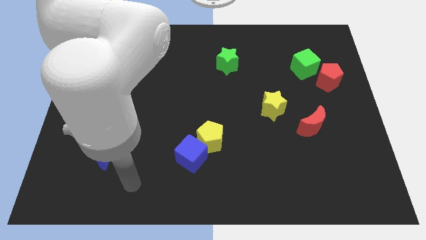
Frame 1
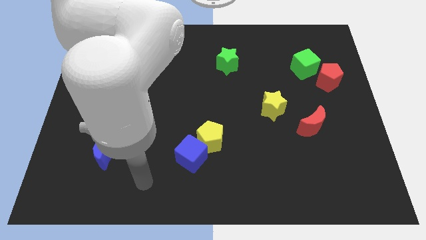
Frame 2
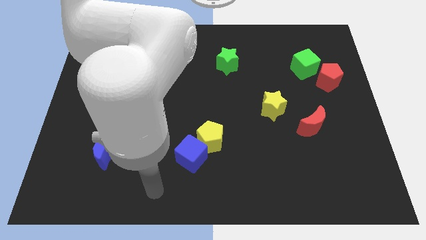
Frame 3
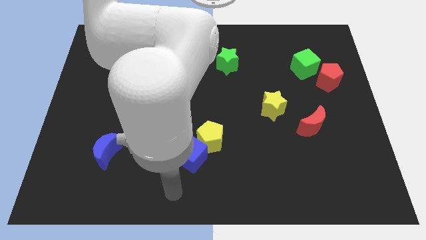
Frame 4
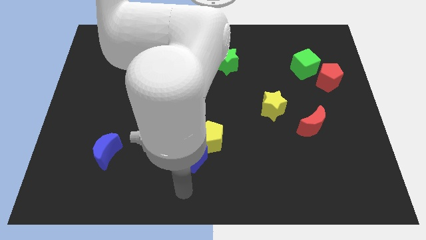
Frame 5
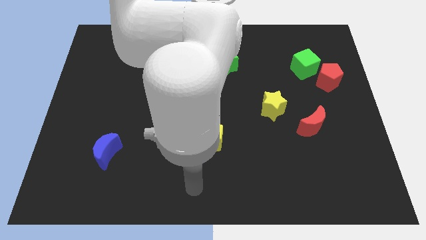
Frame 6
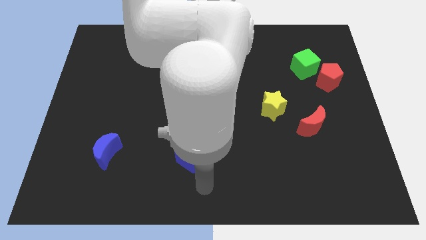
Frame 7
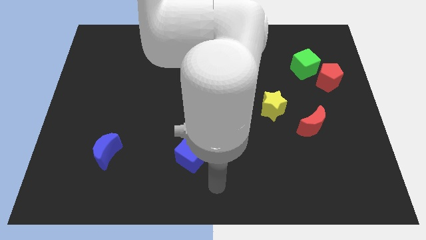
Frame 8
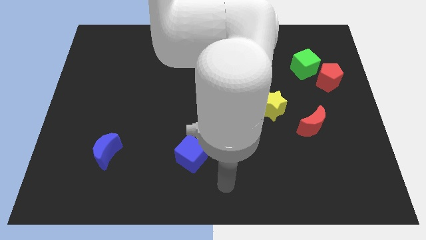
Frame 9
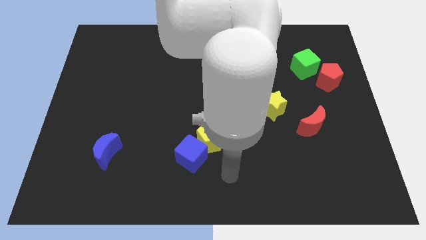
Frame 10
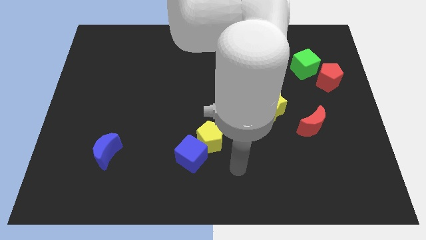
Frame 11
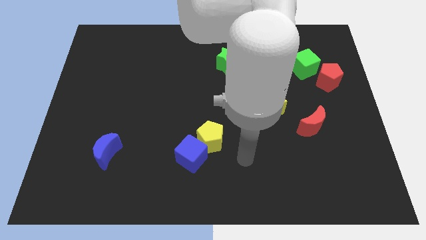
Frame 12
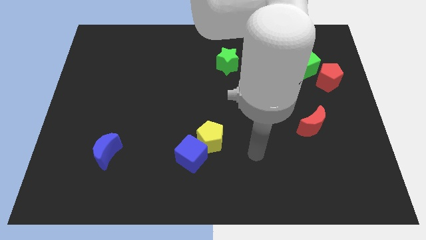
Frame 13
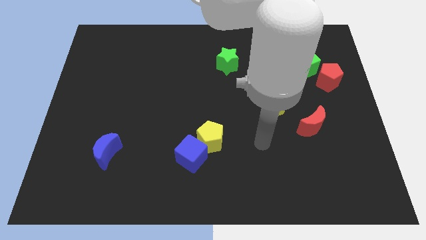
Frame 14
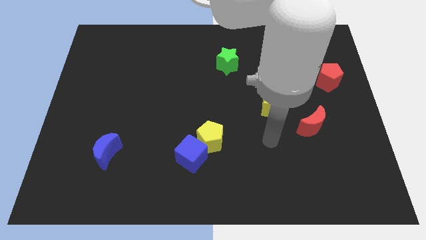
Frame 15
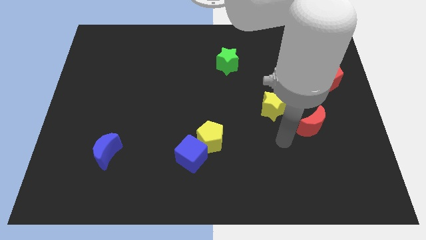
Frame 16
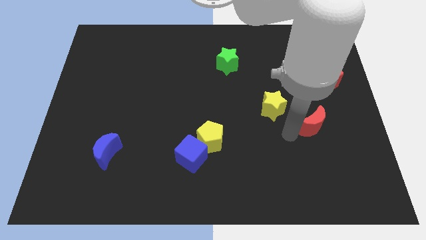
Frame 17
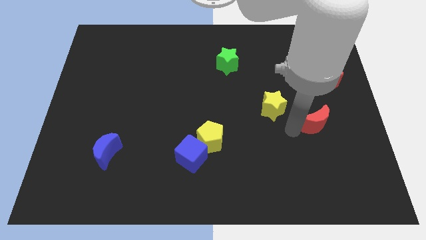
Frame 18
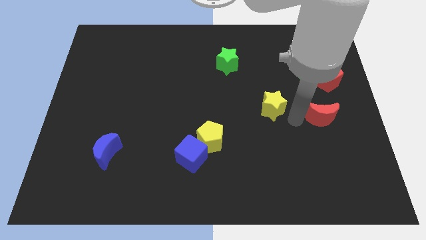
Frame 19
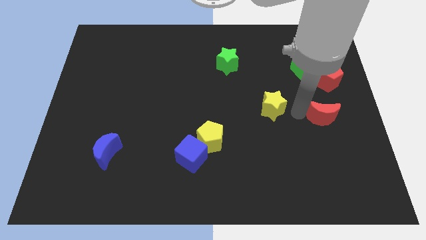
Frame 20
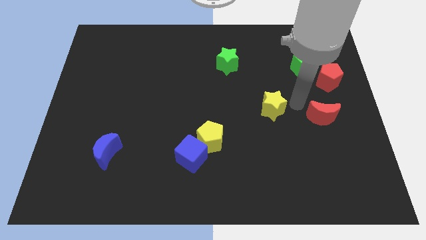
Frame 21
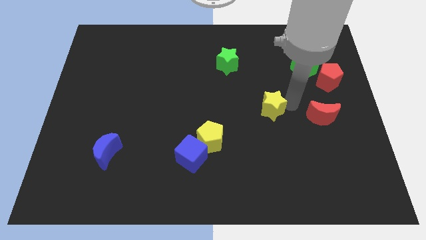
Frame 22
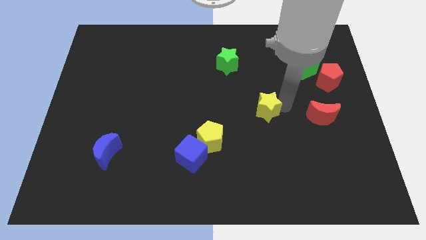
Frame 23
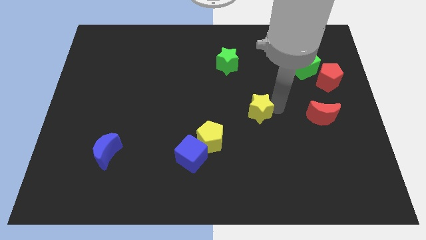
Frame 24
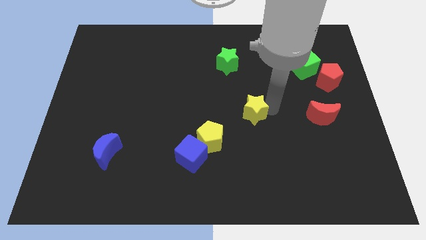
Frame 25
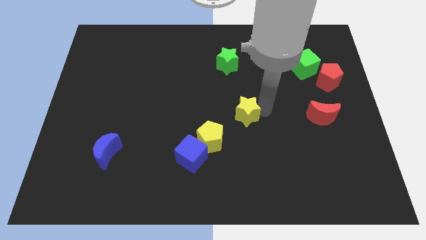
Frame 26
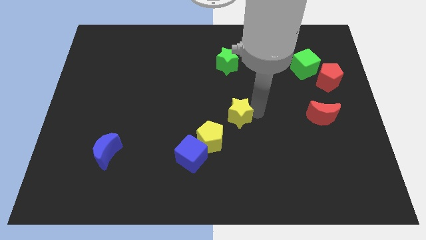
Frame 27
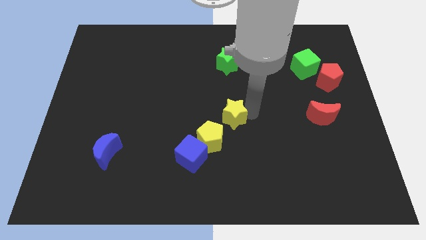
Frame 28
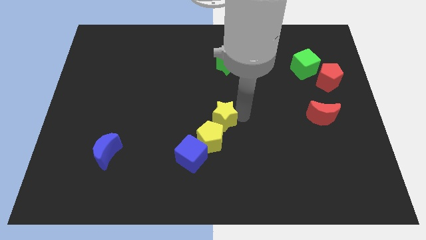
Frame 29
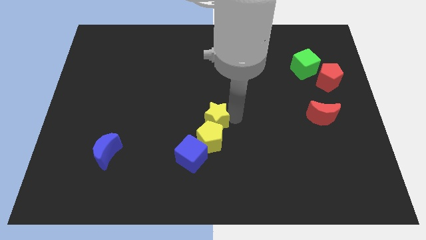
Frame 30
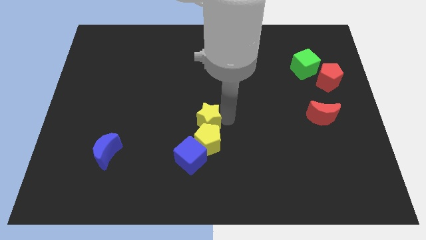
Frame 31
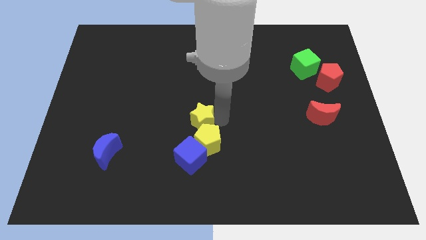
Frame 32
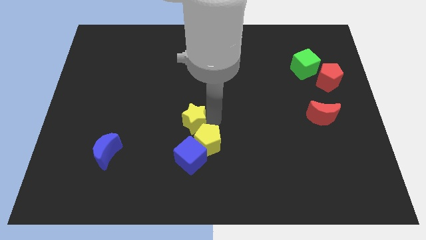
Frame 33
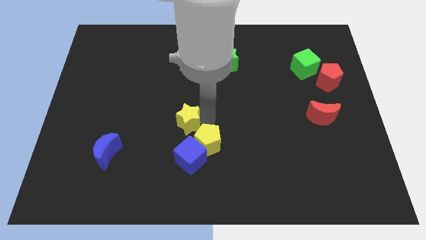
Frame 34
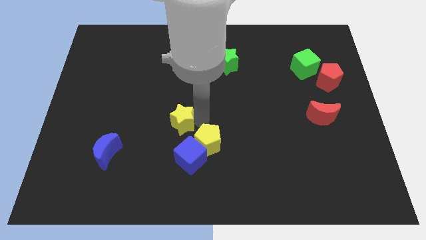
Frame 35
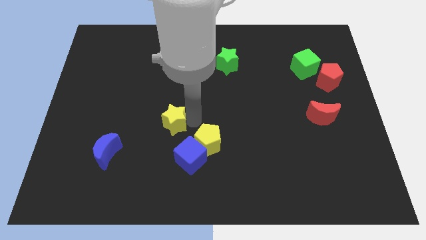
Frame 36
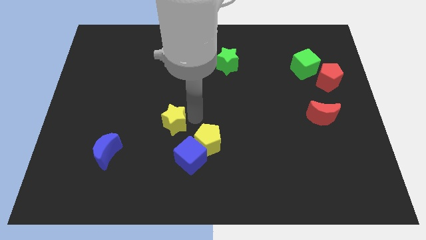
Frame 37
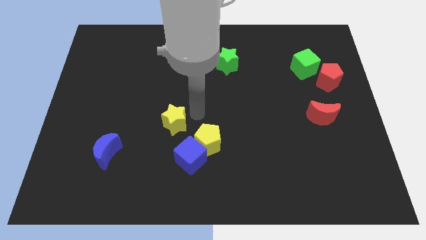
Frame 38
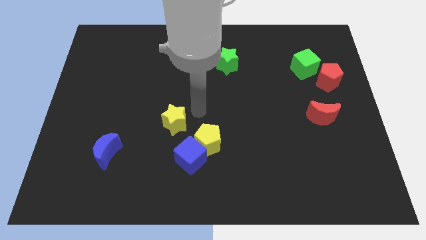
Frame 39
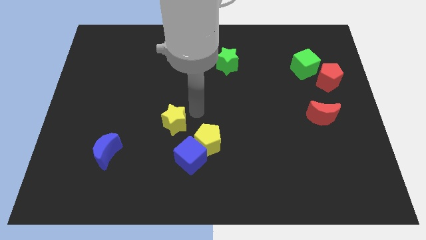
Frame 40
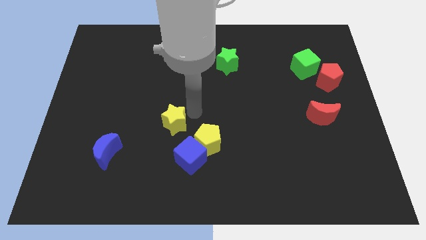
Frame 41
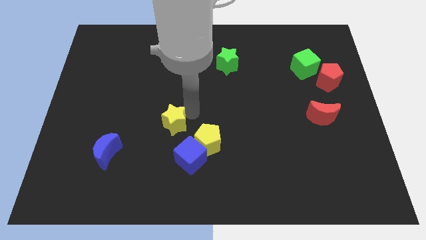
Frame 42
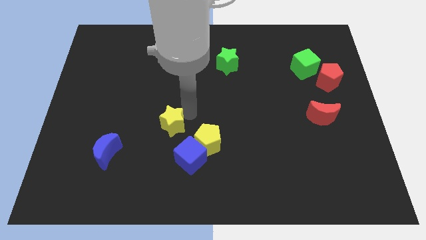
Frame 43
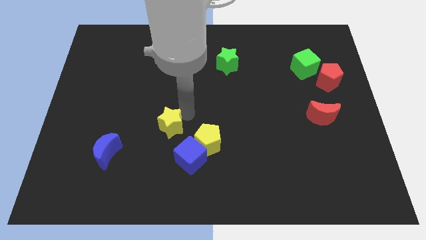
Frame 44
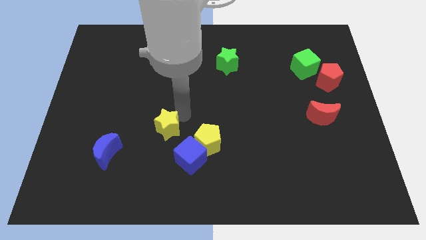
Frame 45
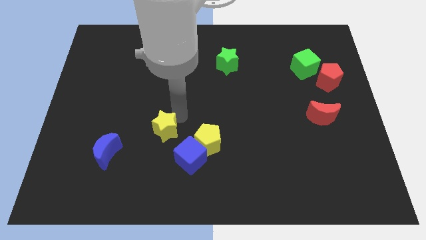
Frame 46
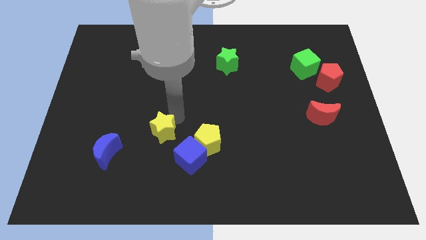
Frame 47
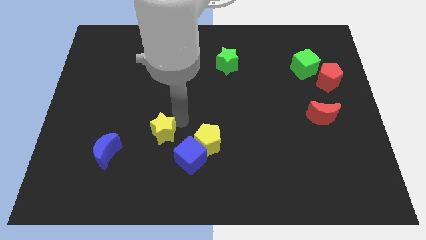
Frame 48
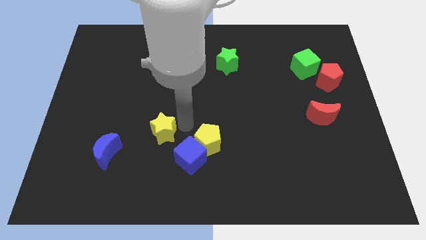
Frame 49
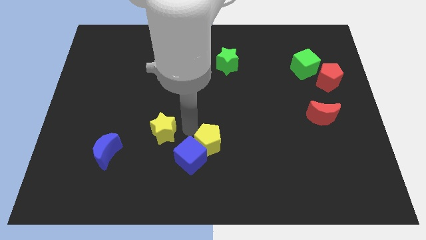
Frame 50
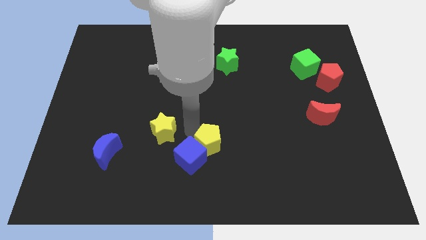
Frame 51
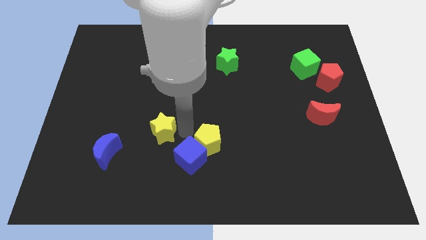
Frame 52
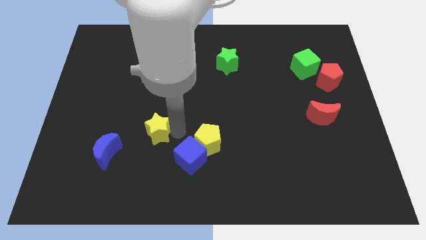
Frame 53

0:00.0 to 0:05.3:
put the yellow star diagonally up and to the right of the blue moon

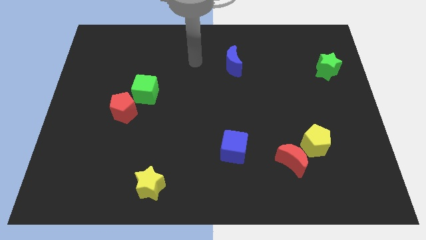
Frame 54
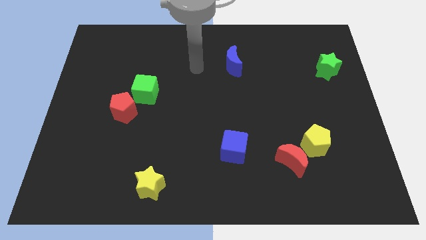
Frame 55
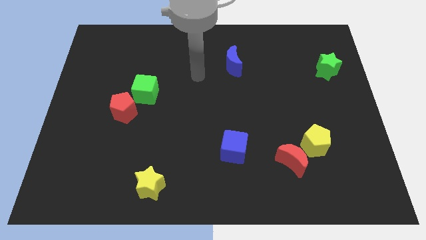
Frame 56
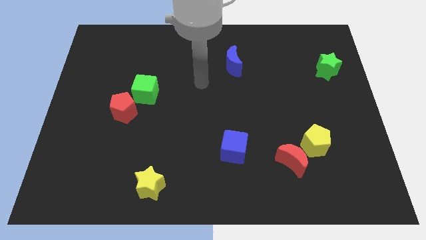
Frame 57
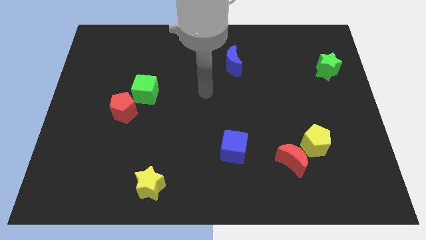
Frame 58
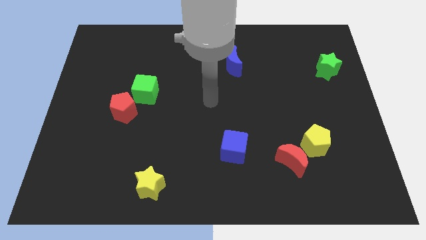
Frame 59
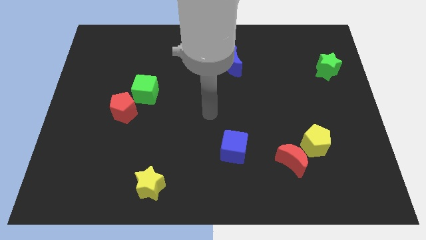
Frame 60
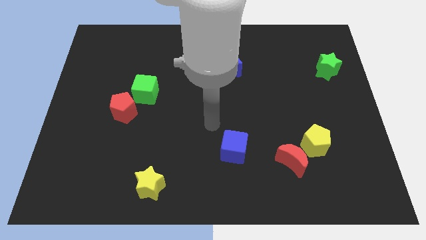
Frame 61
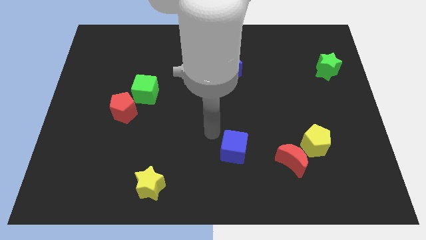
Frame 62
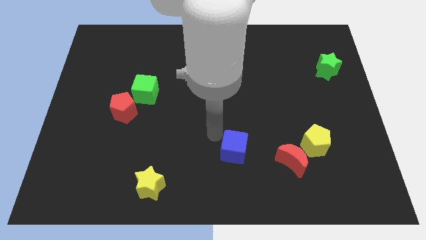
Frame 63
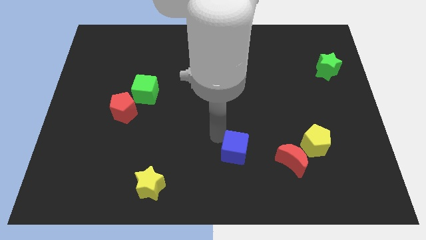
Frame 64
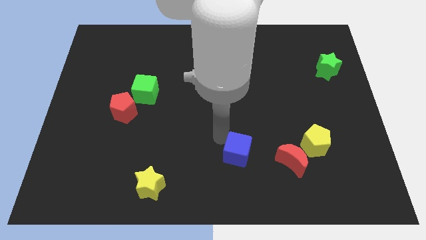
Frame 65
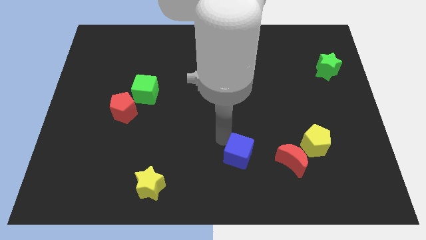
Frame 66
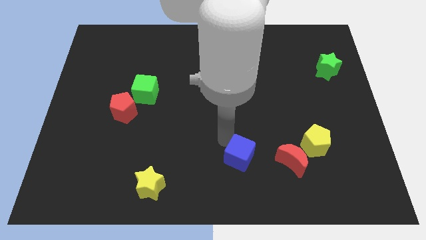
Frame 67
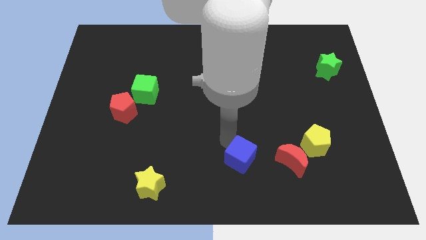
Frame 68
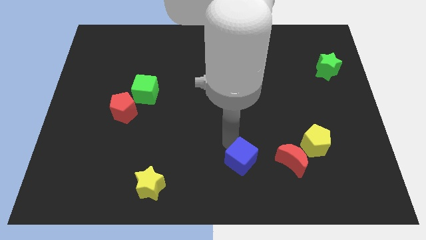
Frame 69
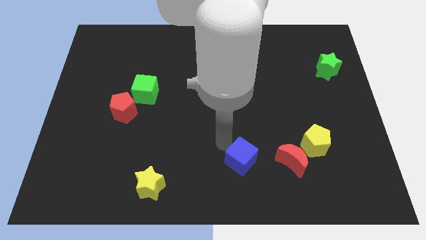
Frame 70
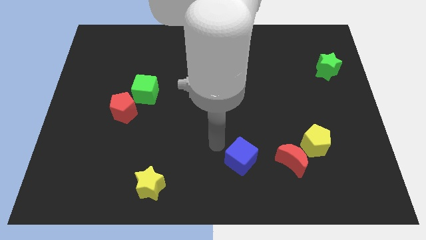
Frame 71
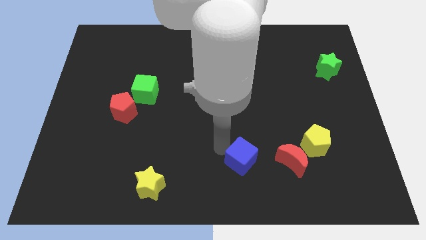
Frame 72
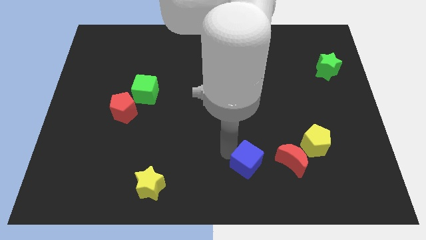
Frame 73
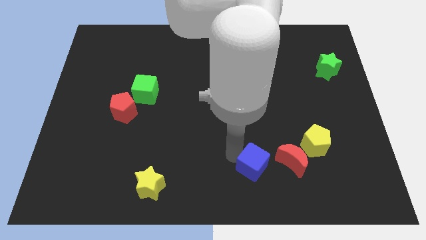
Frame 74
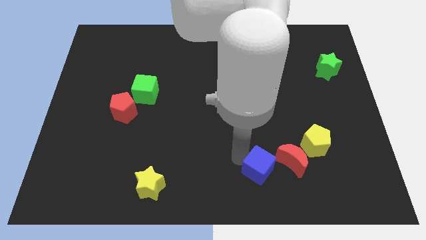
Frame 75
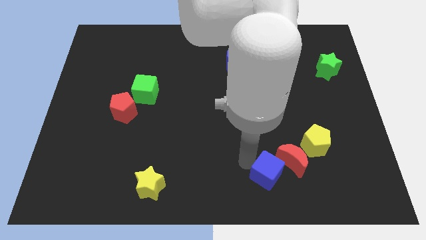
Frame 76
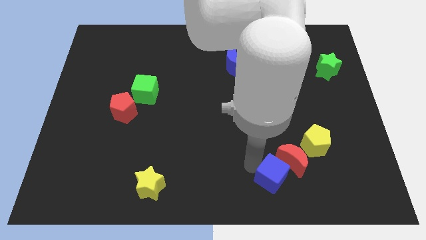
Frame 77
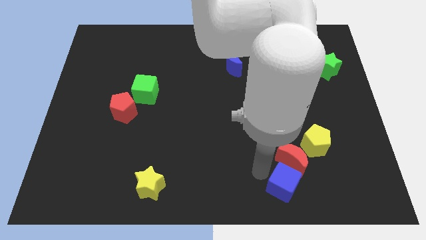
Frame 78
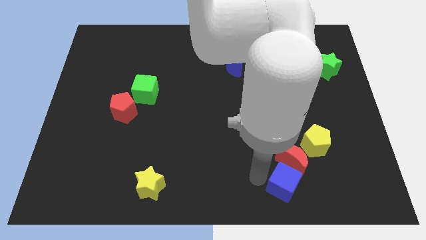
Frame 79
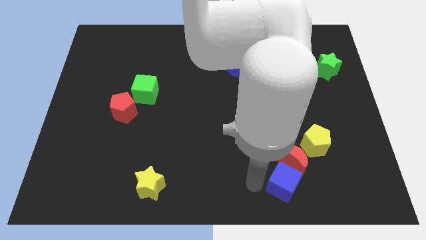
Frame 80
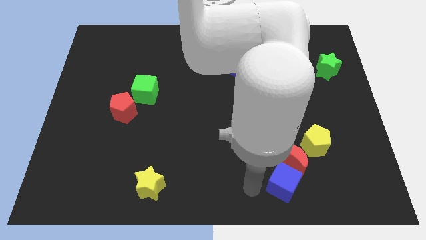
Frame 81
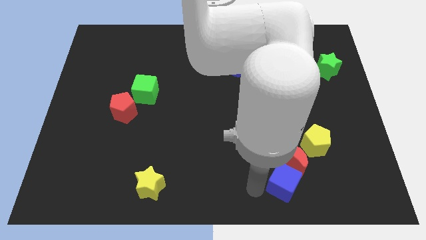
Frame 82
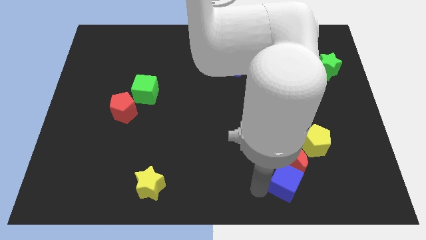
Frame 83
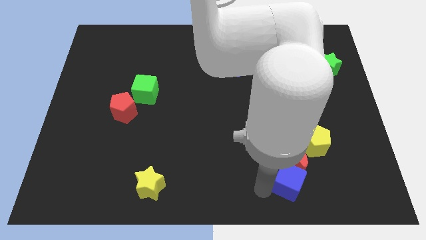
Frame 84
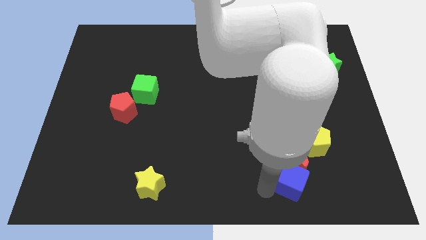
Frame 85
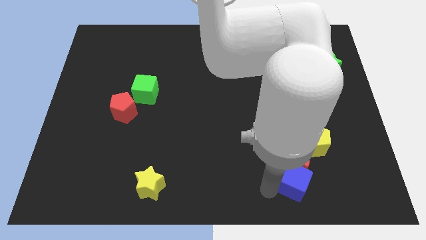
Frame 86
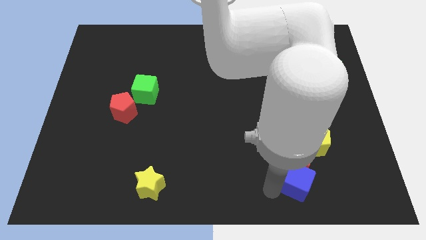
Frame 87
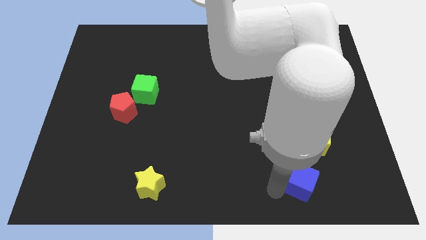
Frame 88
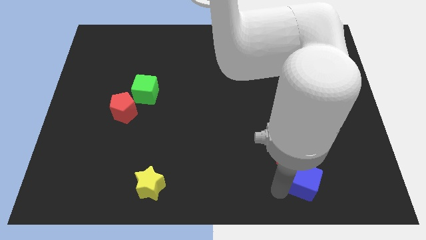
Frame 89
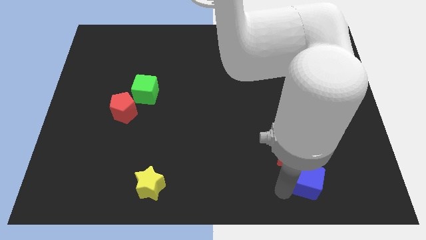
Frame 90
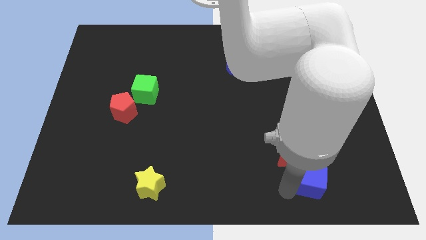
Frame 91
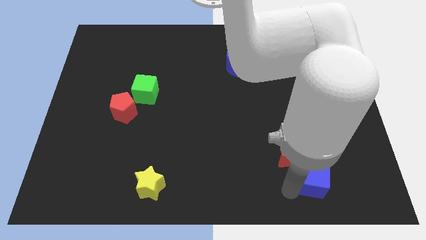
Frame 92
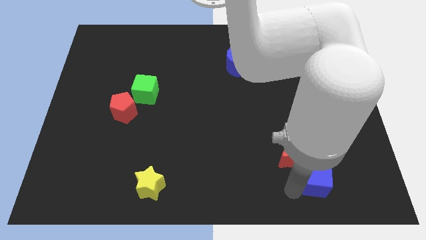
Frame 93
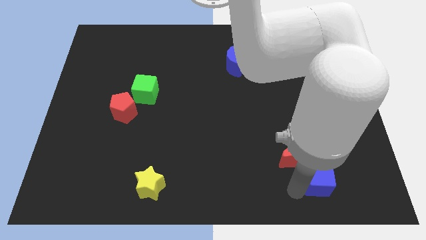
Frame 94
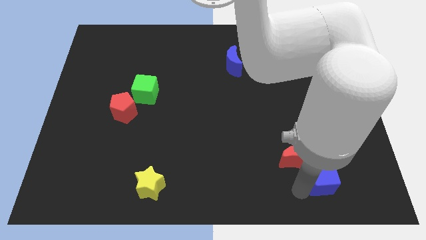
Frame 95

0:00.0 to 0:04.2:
move the blue cube to the right of the red moon
